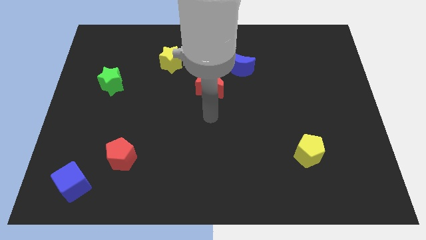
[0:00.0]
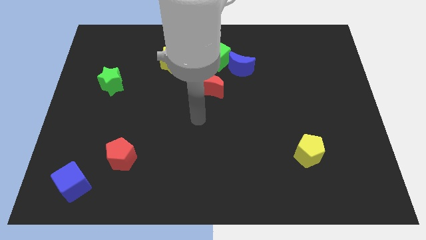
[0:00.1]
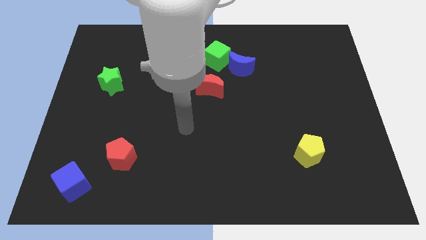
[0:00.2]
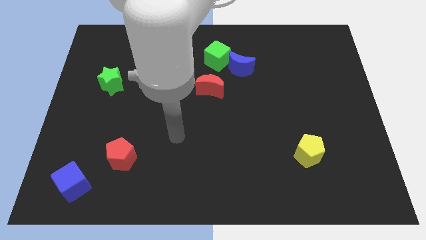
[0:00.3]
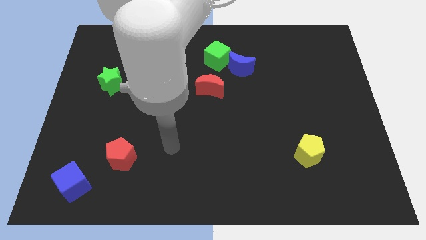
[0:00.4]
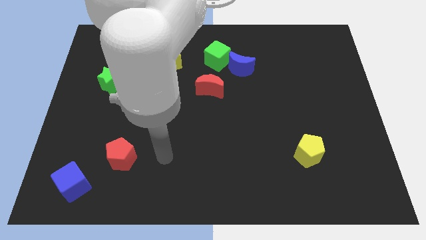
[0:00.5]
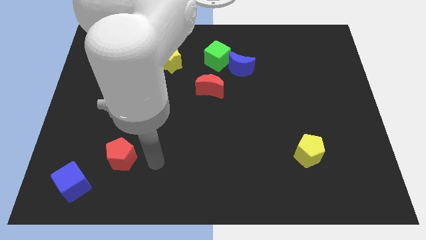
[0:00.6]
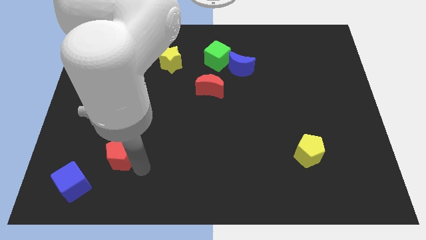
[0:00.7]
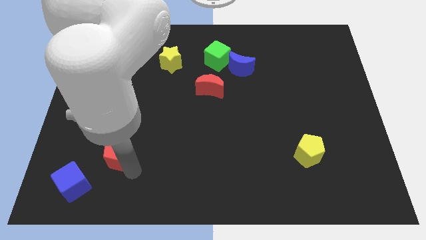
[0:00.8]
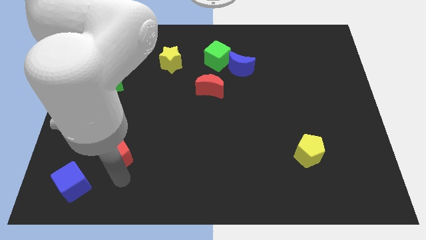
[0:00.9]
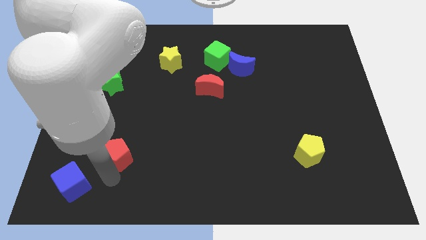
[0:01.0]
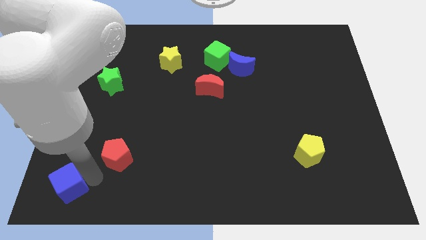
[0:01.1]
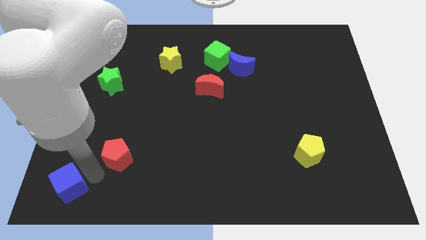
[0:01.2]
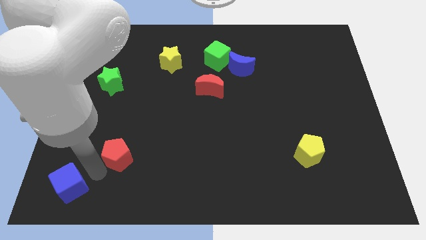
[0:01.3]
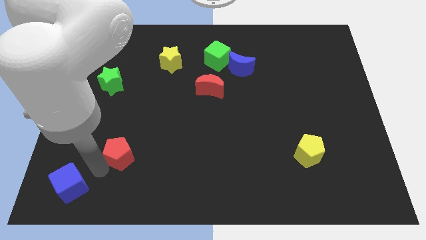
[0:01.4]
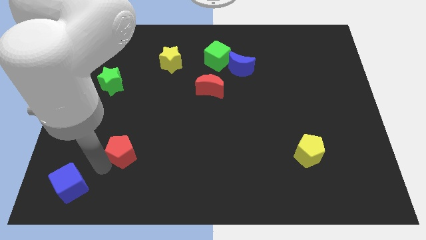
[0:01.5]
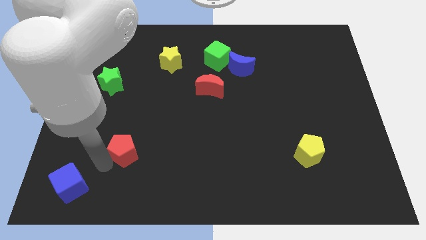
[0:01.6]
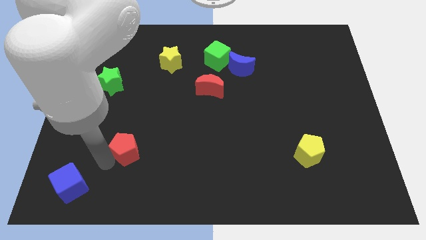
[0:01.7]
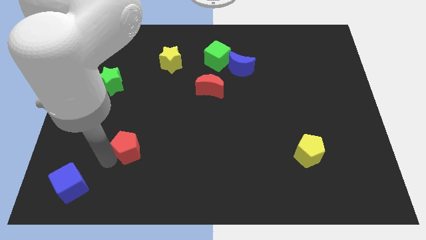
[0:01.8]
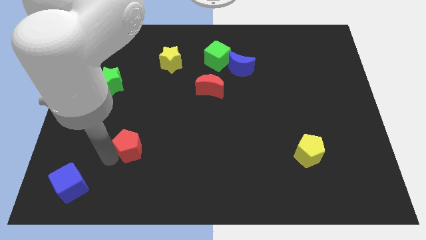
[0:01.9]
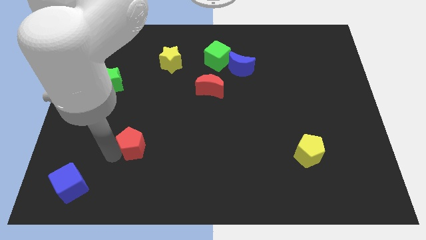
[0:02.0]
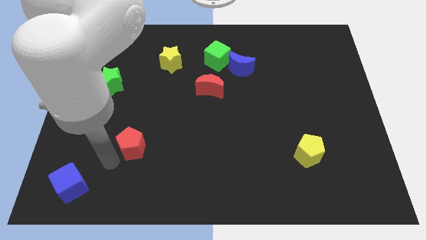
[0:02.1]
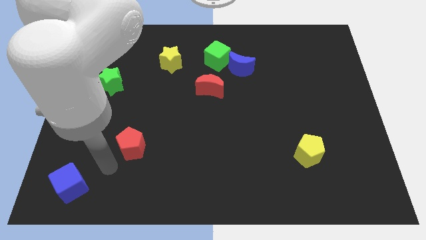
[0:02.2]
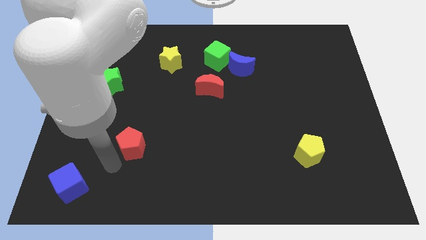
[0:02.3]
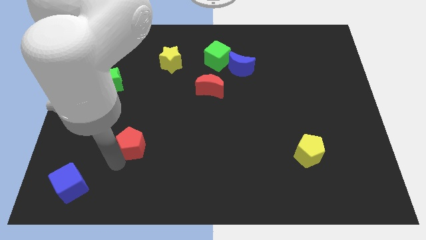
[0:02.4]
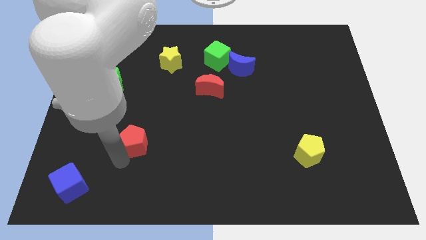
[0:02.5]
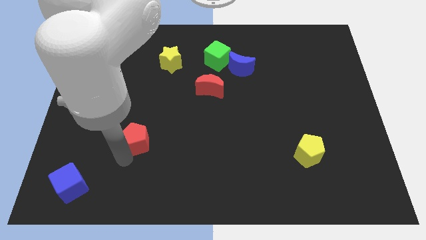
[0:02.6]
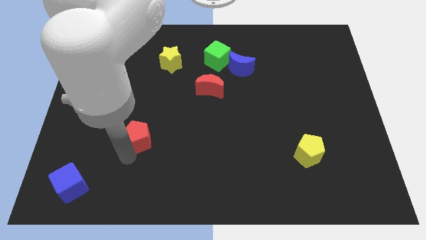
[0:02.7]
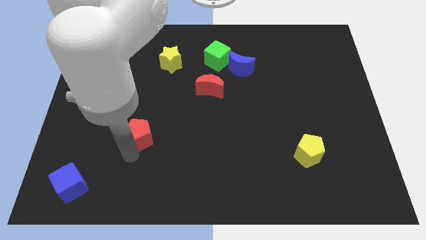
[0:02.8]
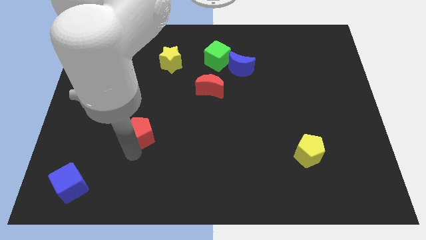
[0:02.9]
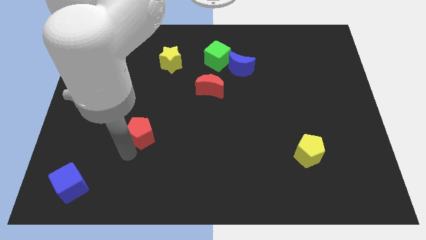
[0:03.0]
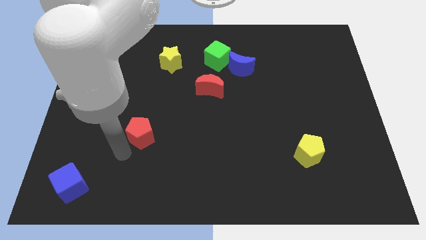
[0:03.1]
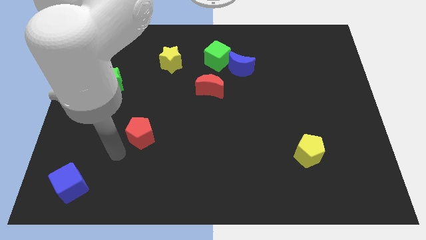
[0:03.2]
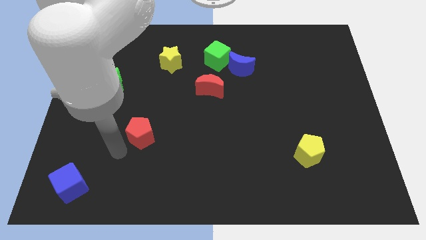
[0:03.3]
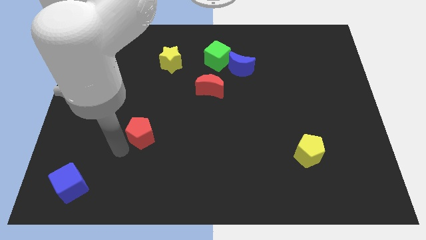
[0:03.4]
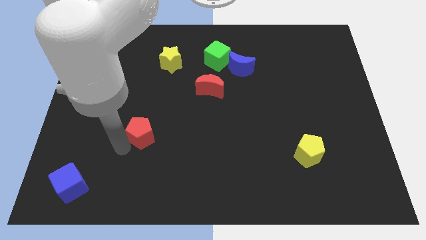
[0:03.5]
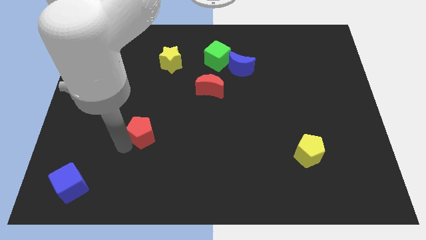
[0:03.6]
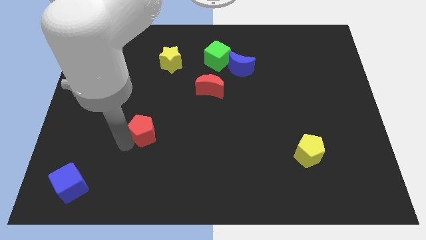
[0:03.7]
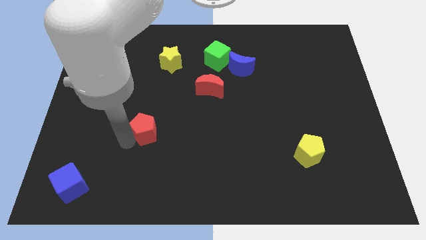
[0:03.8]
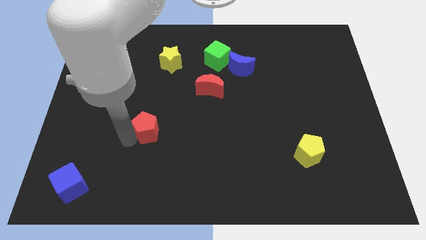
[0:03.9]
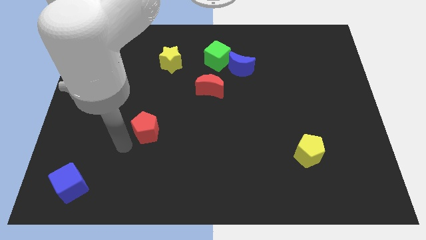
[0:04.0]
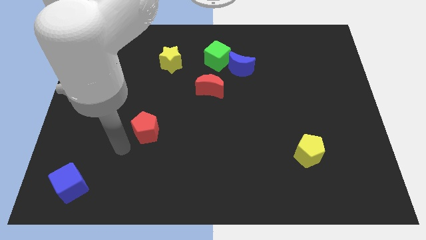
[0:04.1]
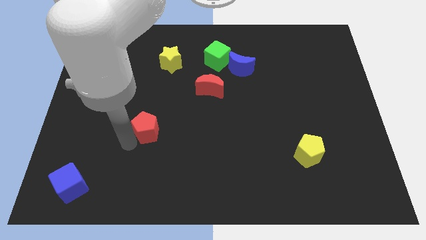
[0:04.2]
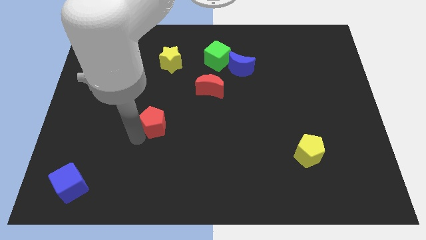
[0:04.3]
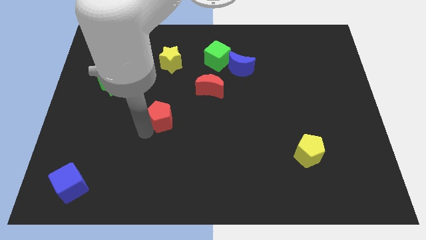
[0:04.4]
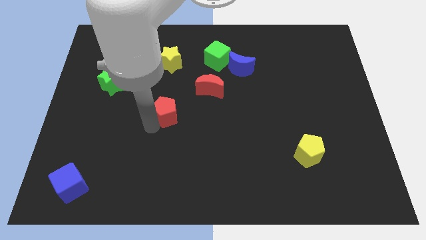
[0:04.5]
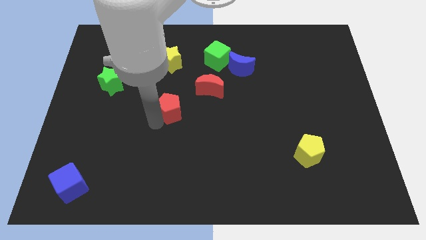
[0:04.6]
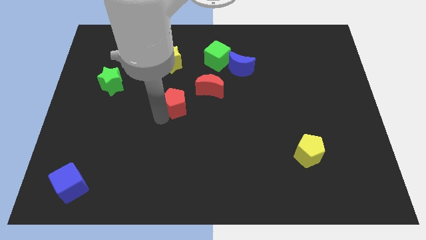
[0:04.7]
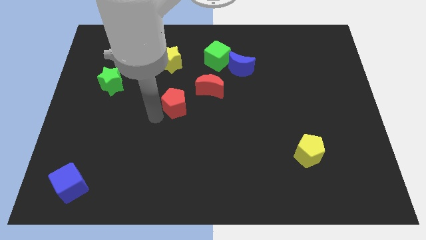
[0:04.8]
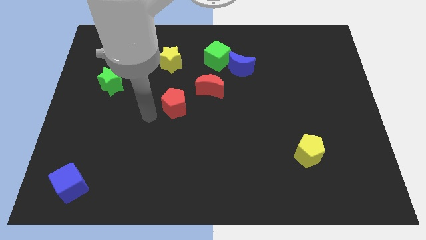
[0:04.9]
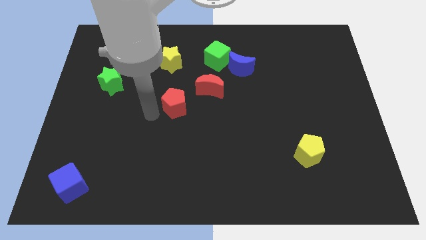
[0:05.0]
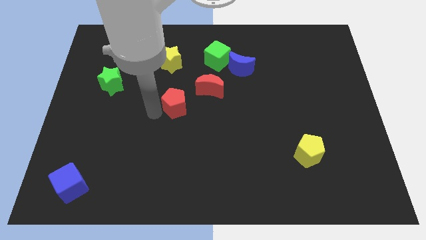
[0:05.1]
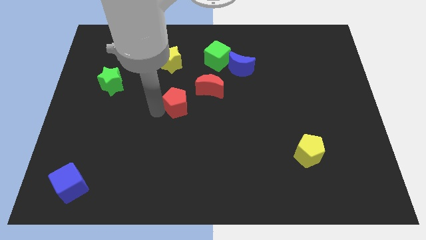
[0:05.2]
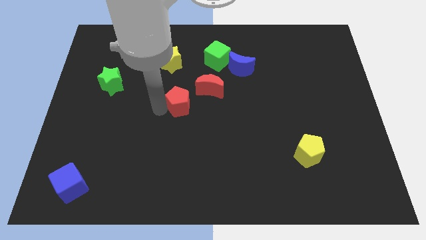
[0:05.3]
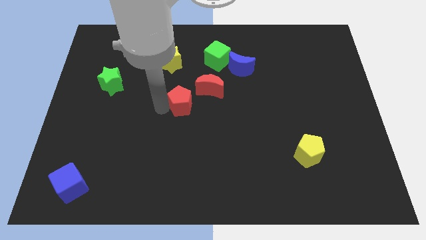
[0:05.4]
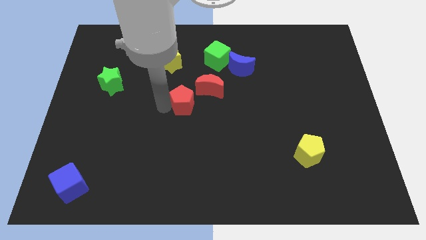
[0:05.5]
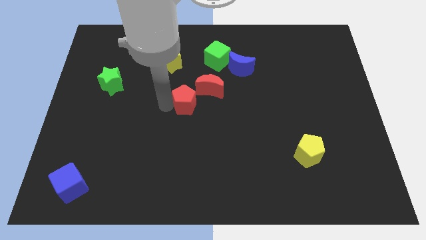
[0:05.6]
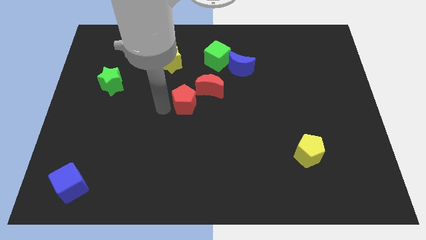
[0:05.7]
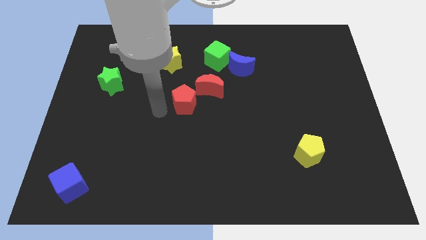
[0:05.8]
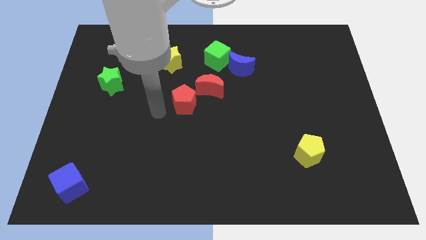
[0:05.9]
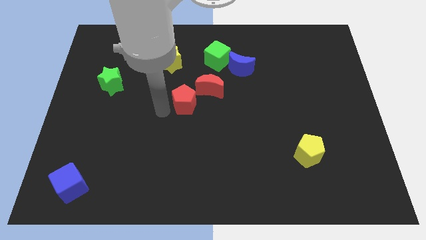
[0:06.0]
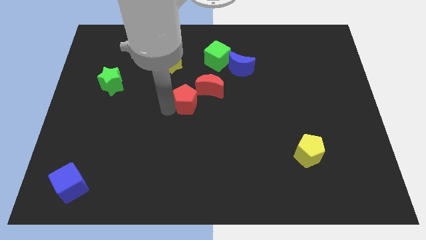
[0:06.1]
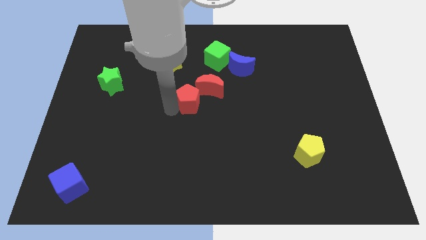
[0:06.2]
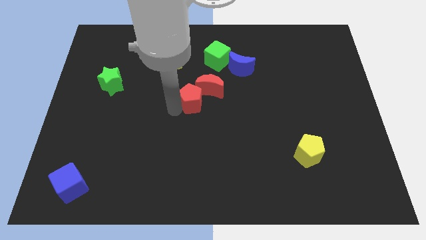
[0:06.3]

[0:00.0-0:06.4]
move the red pentagon towards the red moon

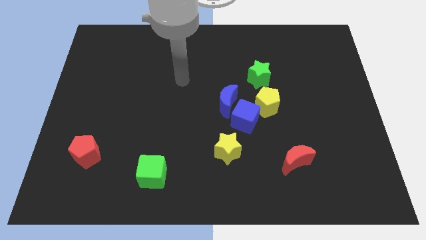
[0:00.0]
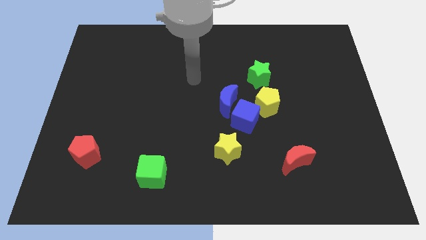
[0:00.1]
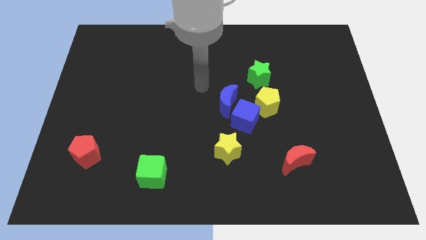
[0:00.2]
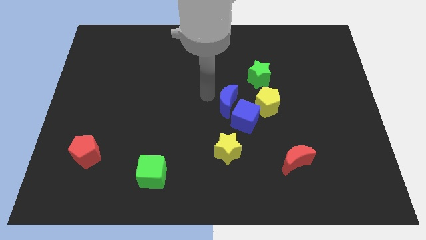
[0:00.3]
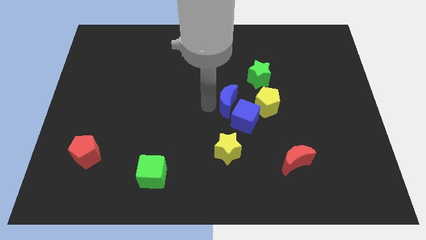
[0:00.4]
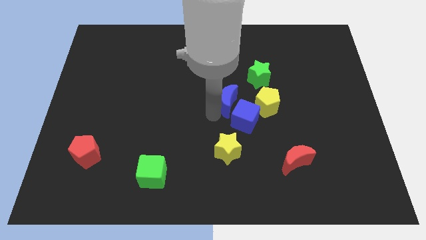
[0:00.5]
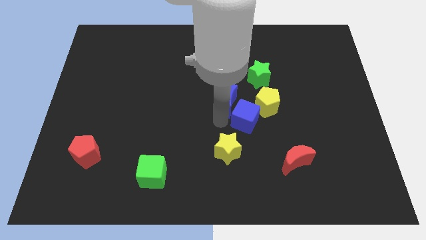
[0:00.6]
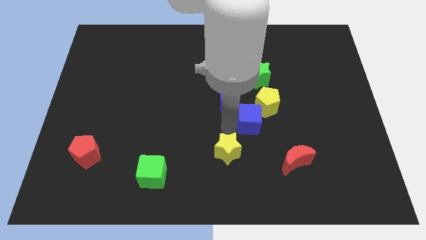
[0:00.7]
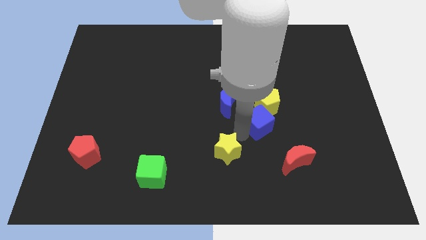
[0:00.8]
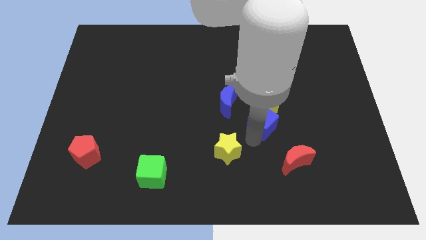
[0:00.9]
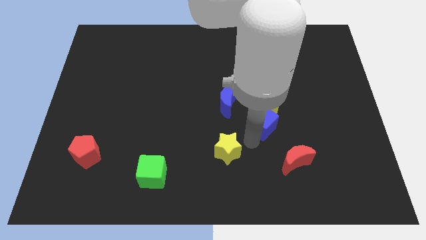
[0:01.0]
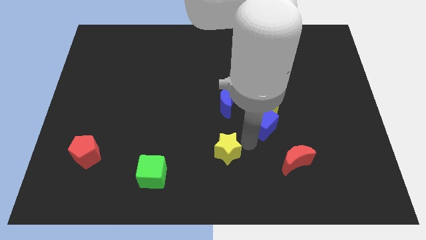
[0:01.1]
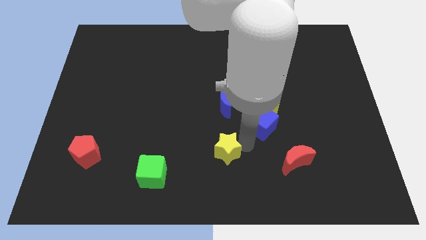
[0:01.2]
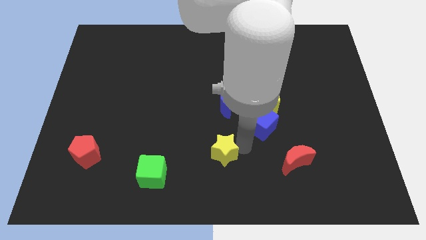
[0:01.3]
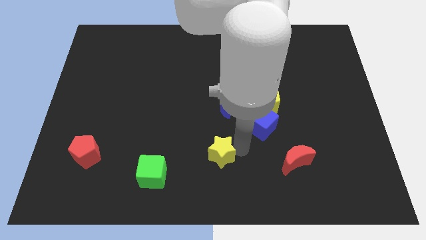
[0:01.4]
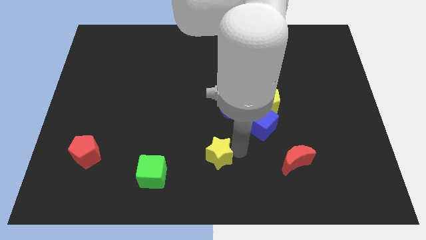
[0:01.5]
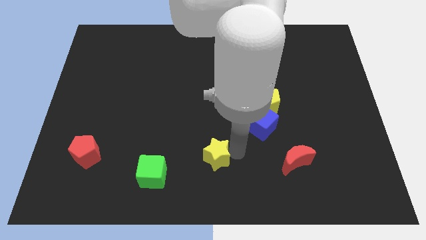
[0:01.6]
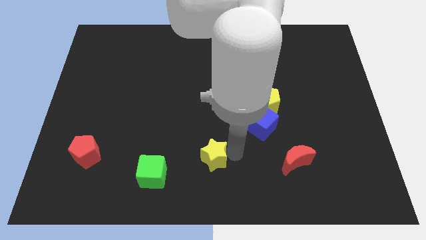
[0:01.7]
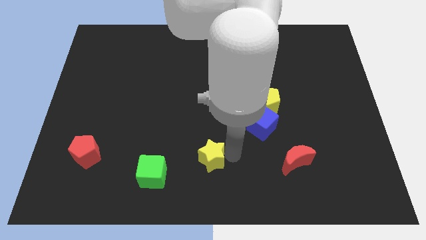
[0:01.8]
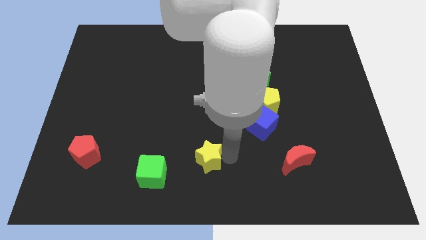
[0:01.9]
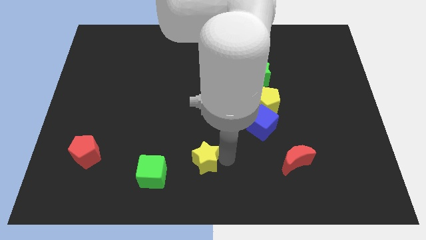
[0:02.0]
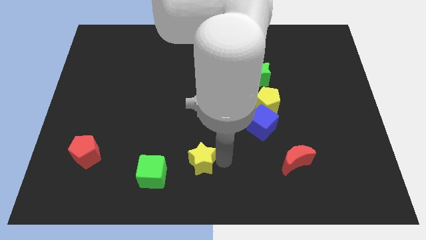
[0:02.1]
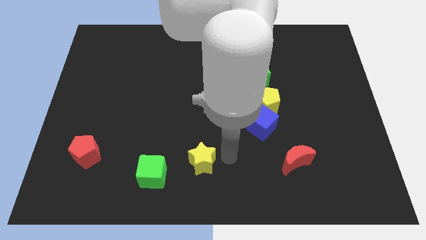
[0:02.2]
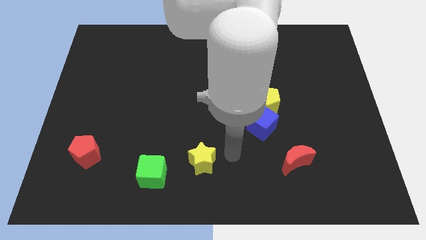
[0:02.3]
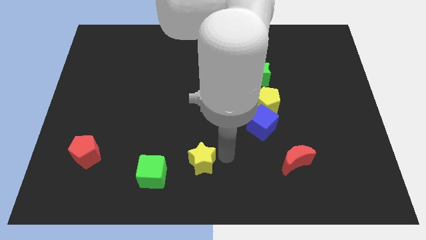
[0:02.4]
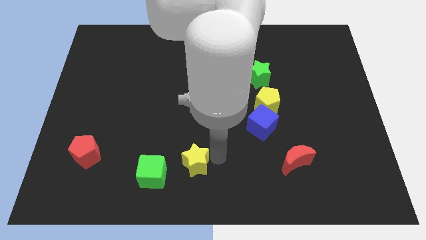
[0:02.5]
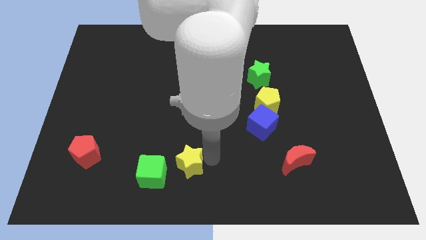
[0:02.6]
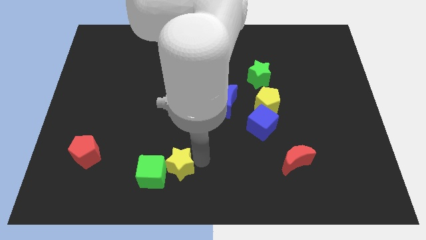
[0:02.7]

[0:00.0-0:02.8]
put the yellow star close to the green cube
